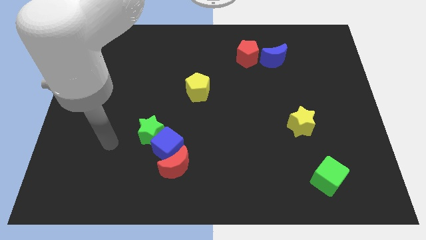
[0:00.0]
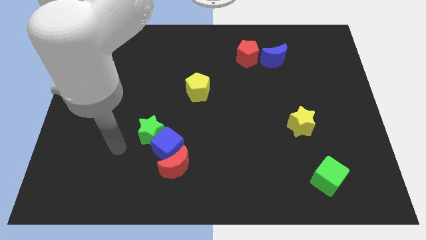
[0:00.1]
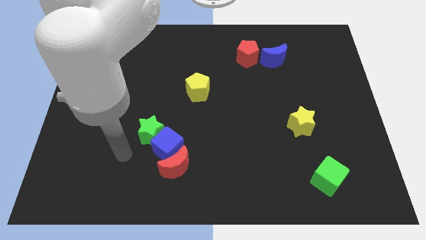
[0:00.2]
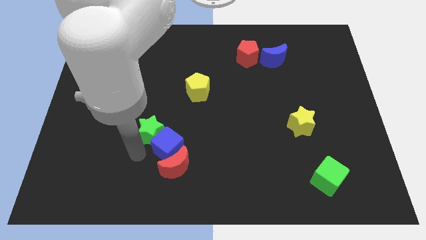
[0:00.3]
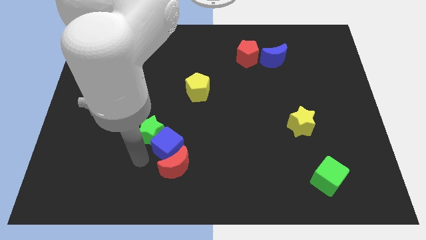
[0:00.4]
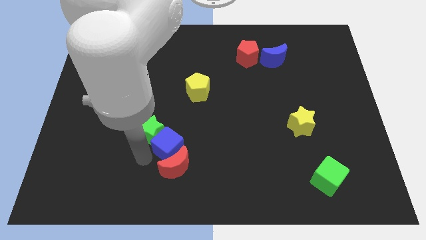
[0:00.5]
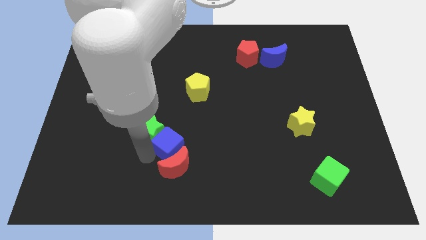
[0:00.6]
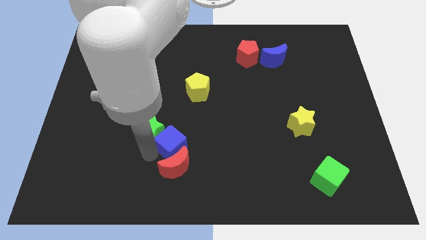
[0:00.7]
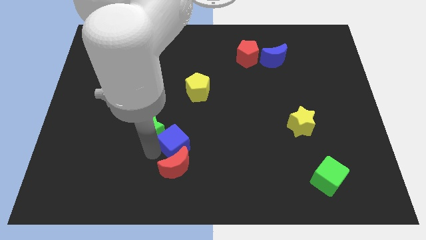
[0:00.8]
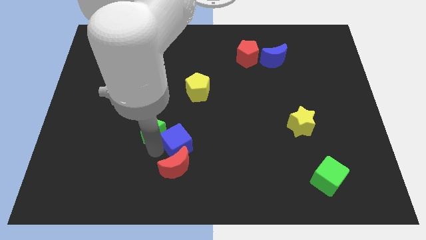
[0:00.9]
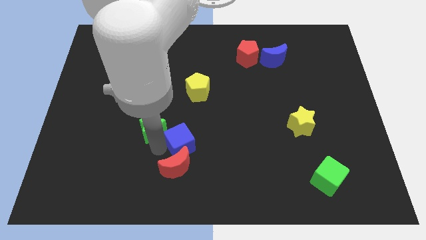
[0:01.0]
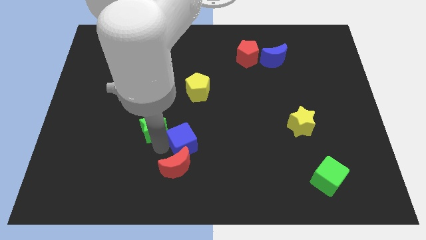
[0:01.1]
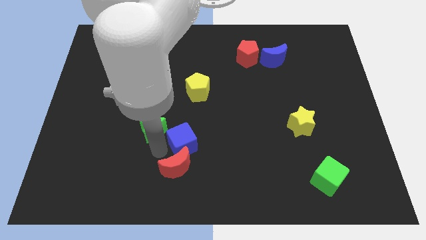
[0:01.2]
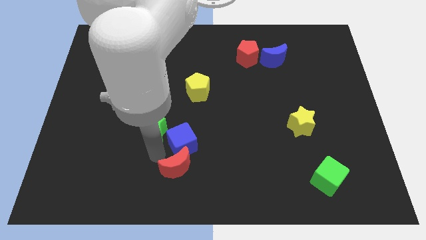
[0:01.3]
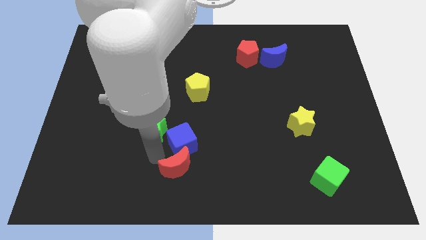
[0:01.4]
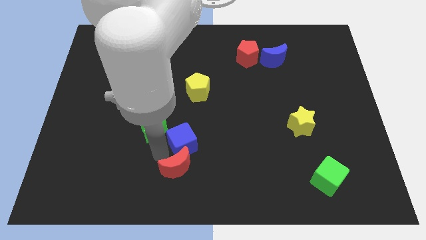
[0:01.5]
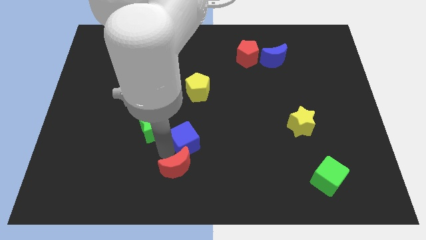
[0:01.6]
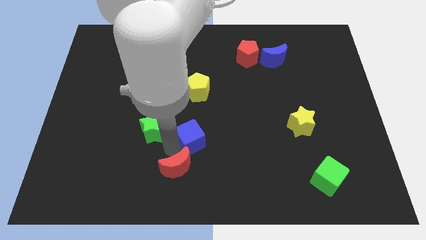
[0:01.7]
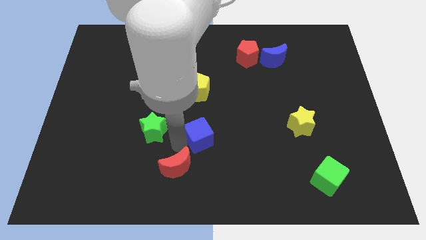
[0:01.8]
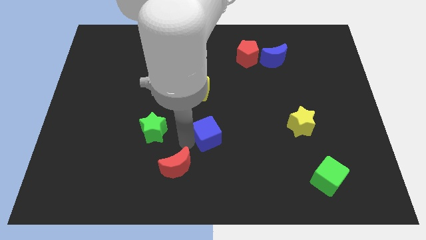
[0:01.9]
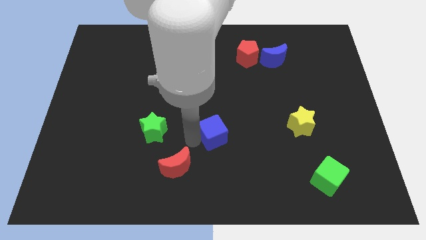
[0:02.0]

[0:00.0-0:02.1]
move the blue cube away from the red moon and green star

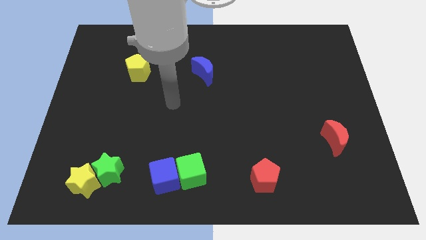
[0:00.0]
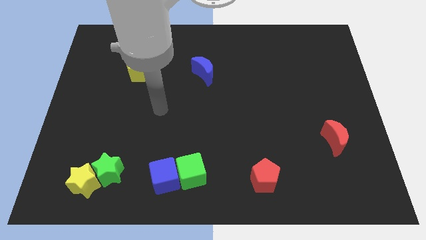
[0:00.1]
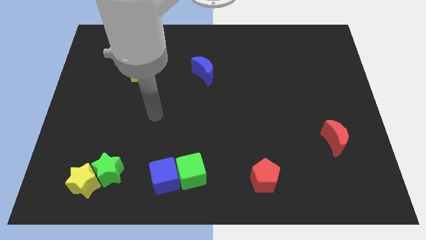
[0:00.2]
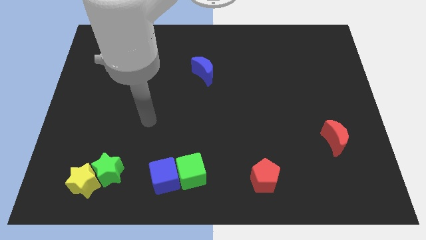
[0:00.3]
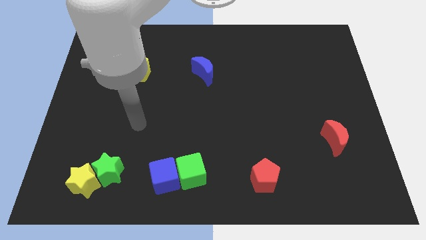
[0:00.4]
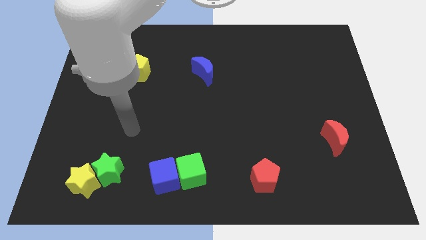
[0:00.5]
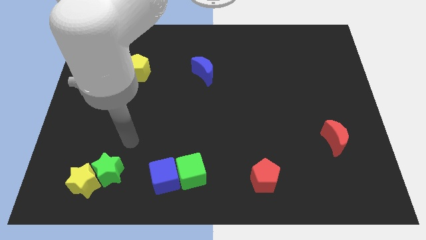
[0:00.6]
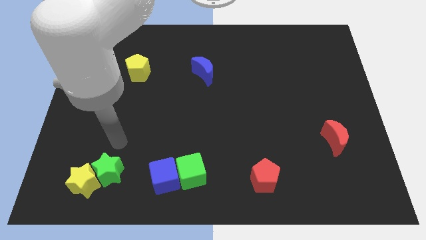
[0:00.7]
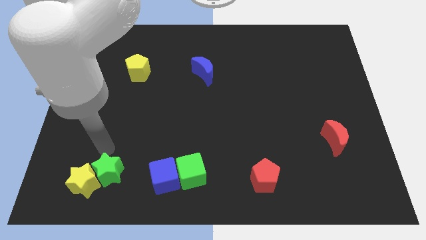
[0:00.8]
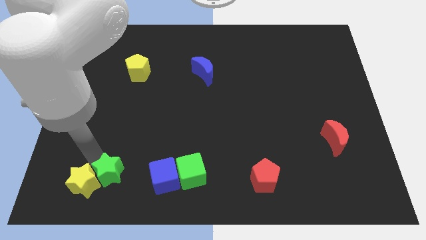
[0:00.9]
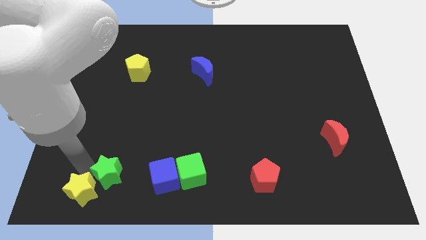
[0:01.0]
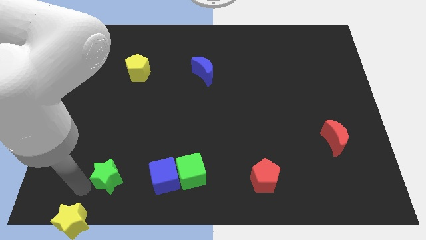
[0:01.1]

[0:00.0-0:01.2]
separate the green star from the yellow star

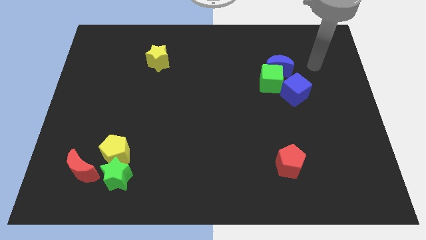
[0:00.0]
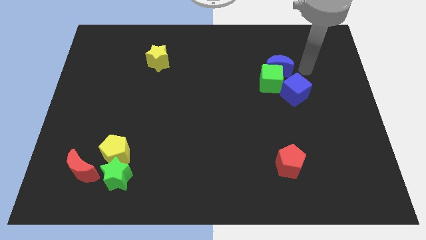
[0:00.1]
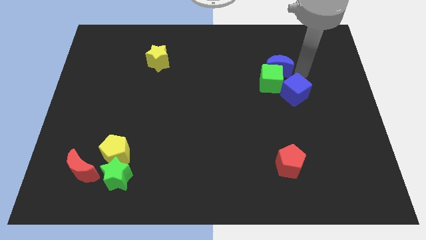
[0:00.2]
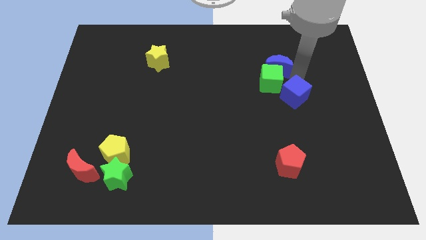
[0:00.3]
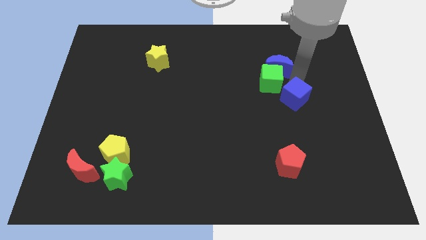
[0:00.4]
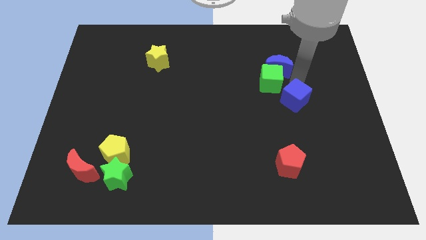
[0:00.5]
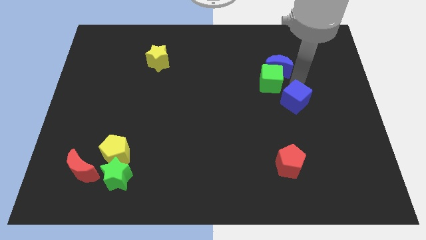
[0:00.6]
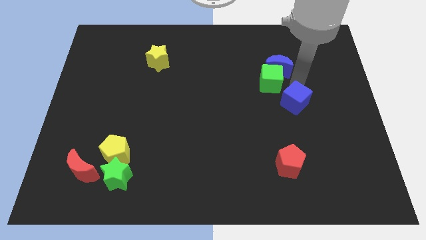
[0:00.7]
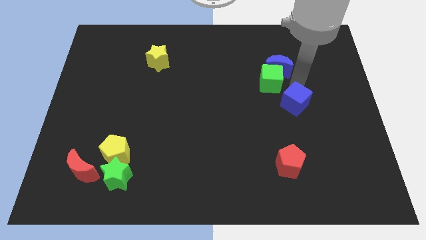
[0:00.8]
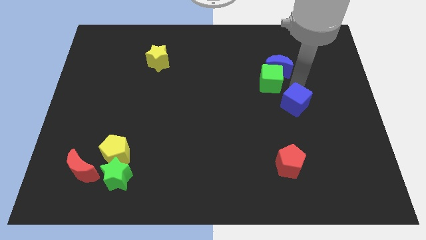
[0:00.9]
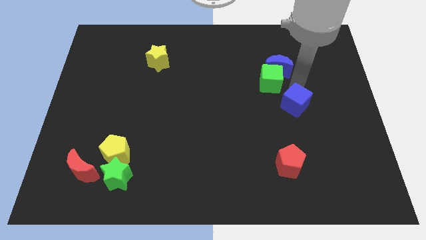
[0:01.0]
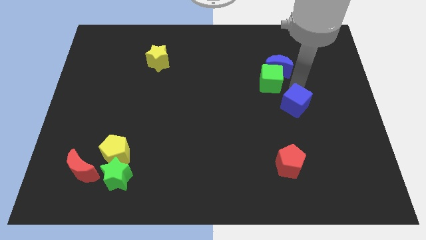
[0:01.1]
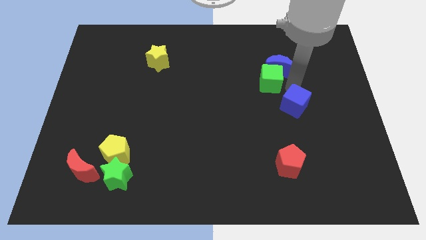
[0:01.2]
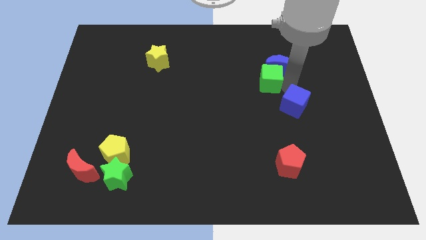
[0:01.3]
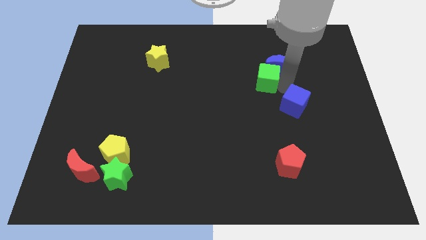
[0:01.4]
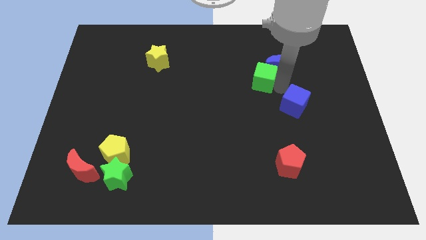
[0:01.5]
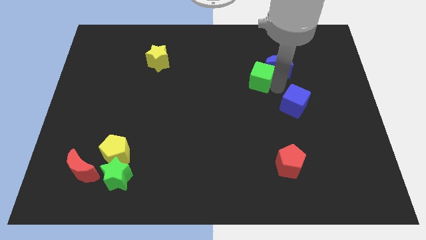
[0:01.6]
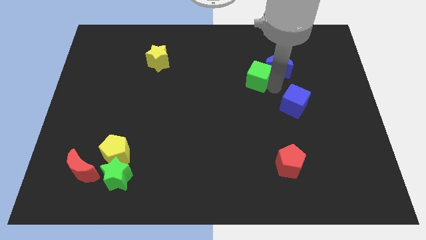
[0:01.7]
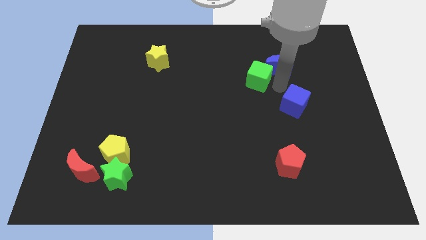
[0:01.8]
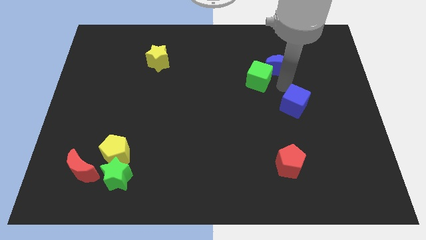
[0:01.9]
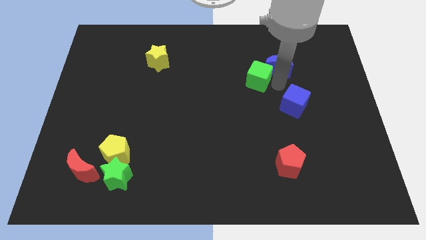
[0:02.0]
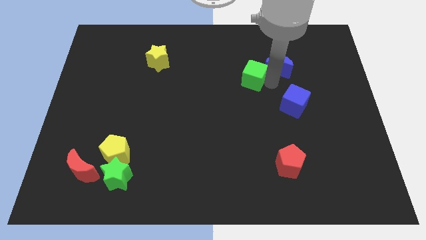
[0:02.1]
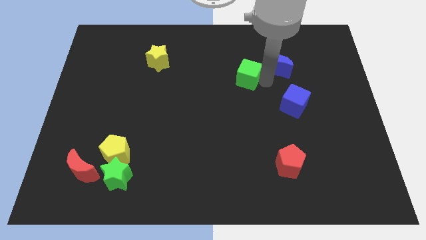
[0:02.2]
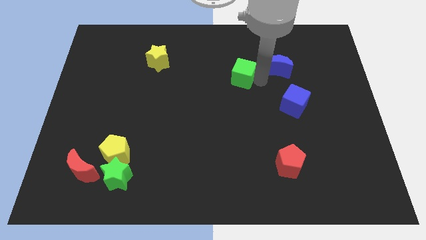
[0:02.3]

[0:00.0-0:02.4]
move the green cube away from the blue moon and blue cube

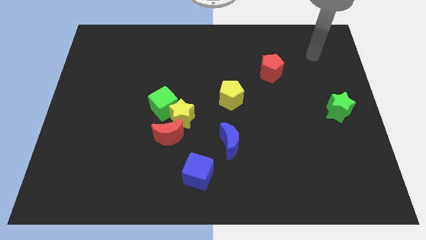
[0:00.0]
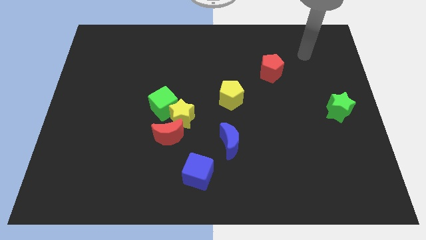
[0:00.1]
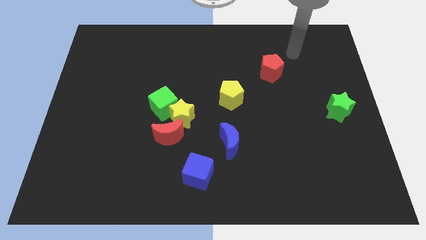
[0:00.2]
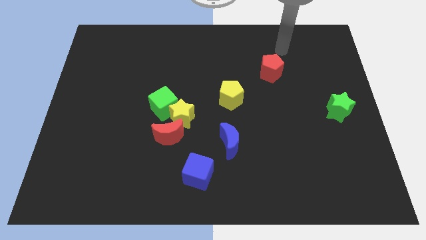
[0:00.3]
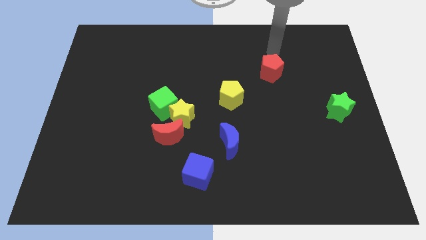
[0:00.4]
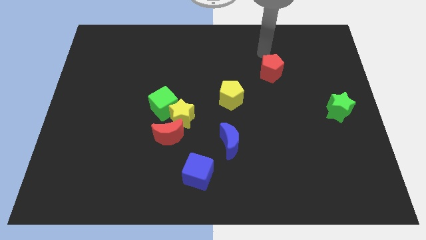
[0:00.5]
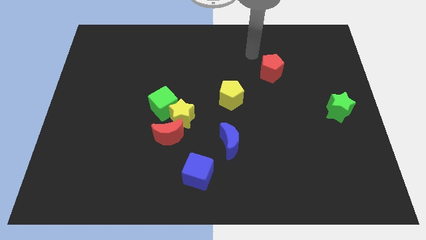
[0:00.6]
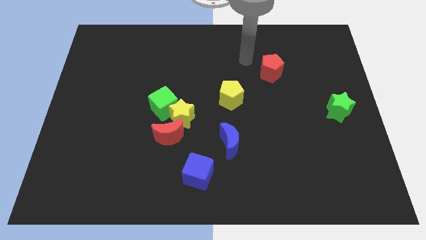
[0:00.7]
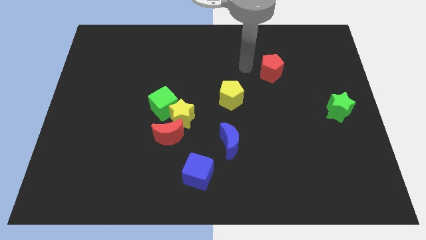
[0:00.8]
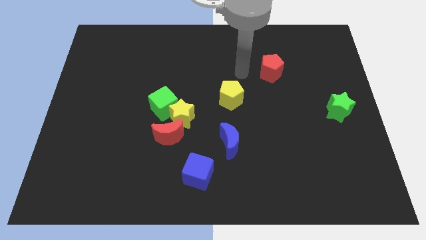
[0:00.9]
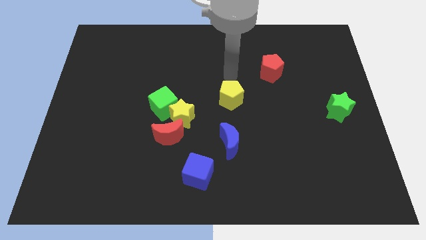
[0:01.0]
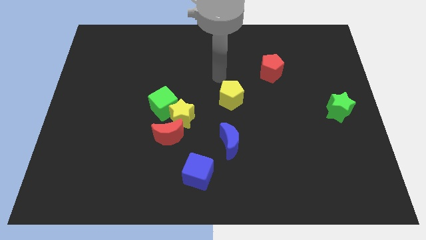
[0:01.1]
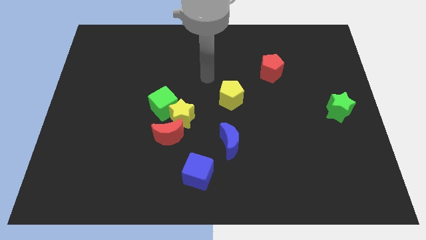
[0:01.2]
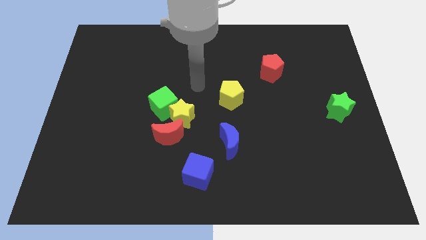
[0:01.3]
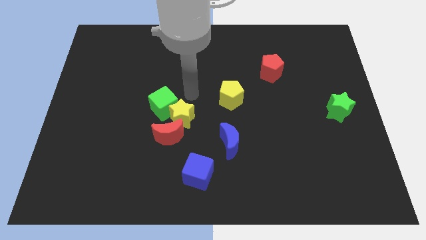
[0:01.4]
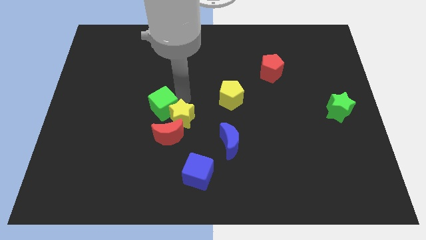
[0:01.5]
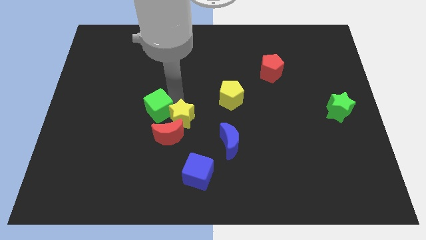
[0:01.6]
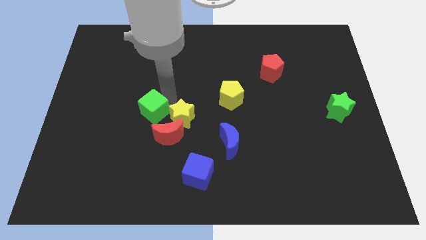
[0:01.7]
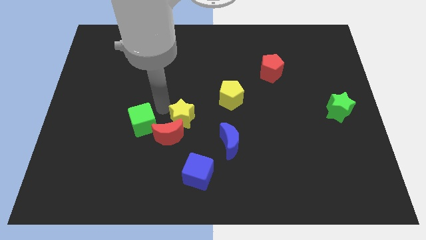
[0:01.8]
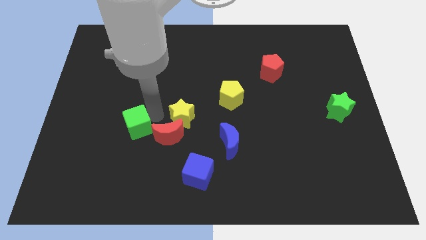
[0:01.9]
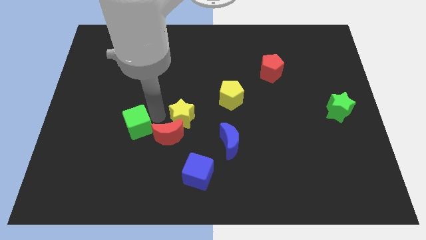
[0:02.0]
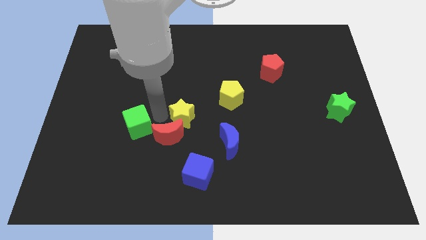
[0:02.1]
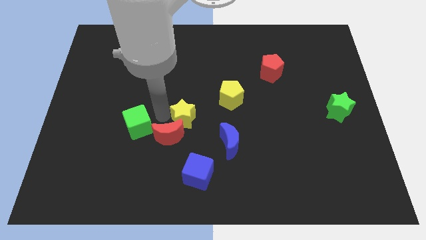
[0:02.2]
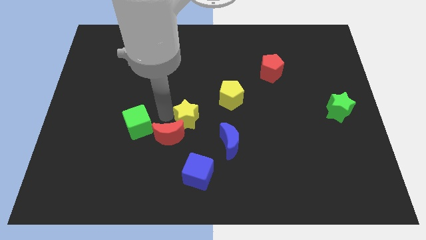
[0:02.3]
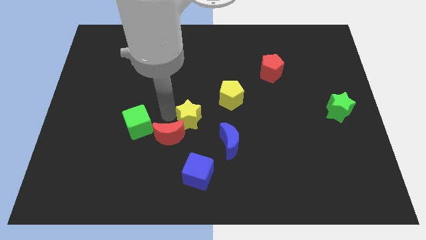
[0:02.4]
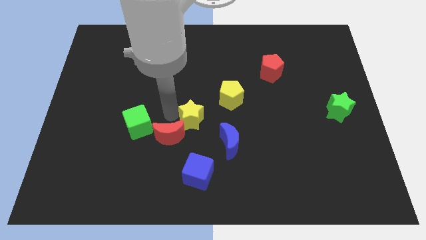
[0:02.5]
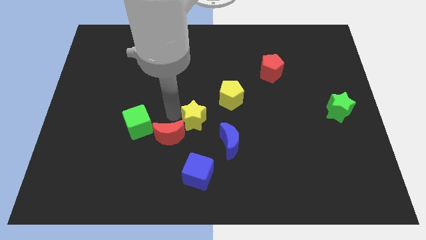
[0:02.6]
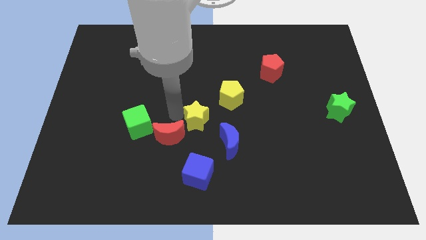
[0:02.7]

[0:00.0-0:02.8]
move the yellow star away from the red moon and green cube

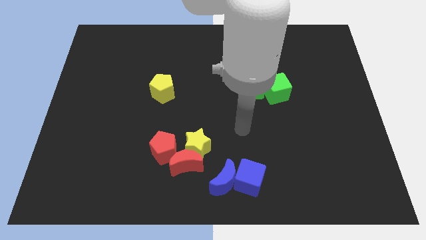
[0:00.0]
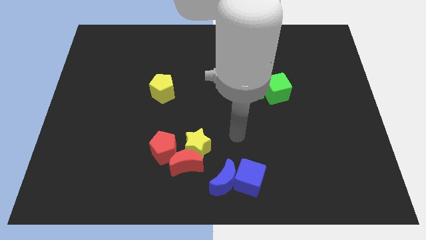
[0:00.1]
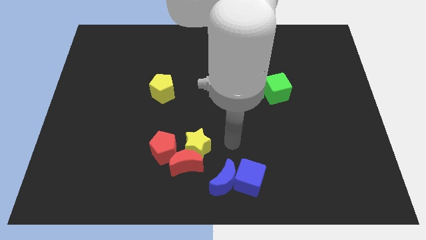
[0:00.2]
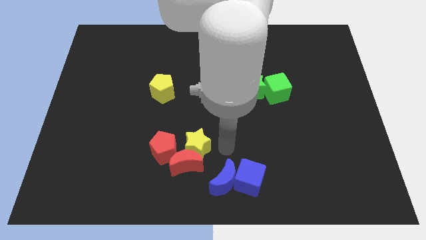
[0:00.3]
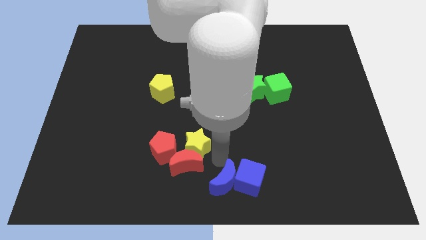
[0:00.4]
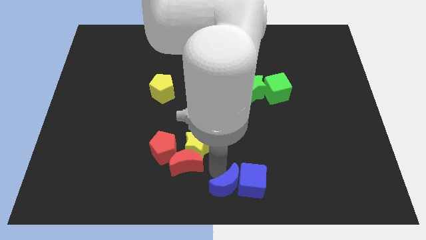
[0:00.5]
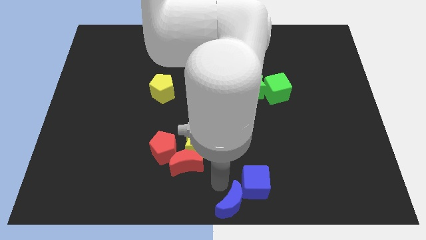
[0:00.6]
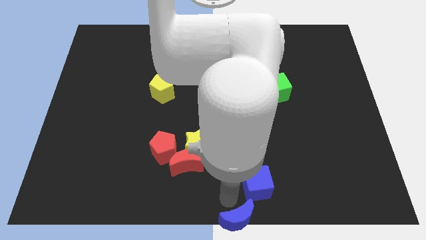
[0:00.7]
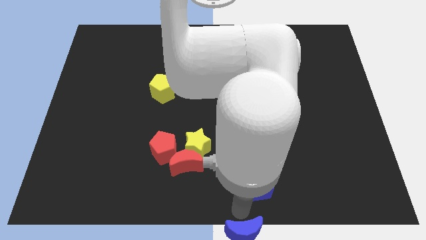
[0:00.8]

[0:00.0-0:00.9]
pull the blue cube apart from the blue moon
